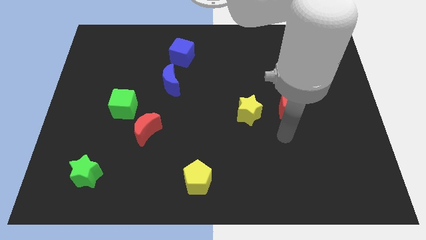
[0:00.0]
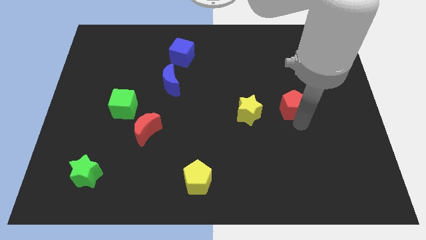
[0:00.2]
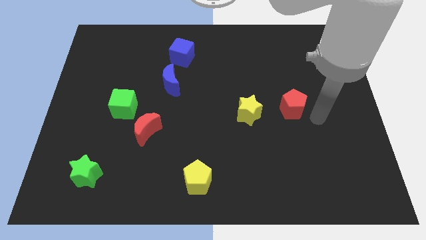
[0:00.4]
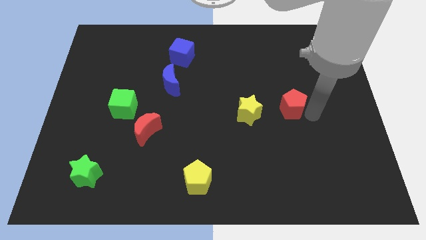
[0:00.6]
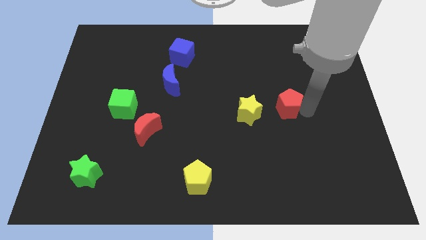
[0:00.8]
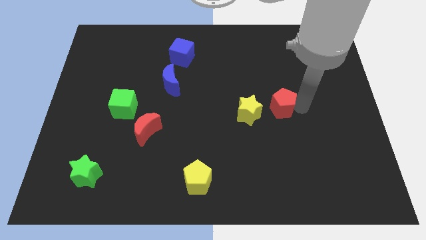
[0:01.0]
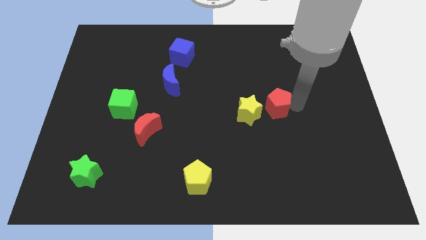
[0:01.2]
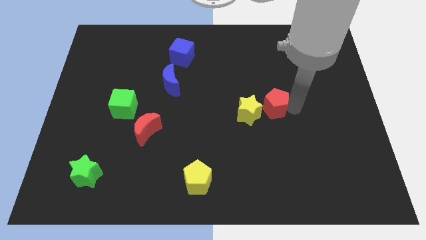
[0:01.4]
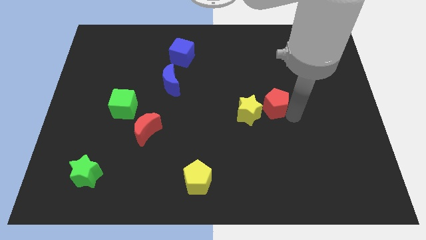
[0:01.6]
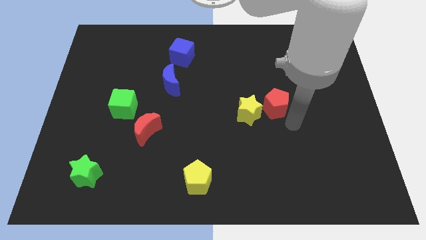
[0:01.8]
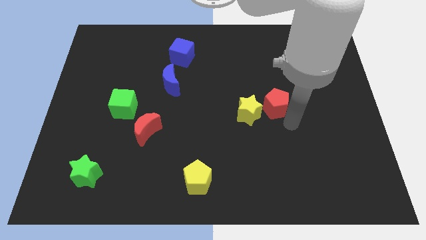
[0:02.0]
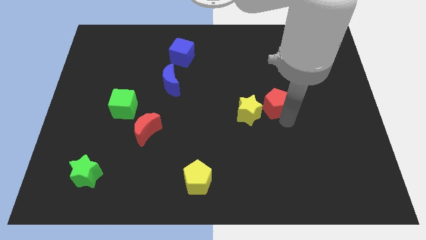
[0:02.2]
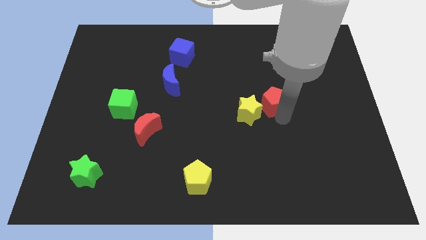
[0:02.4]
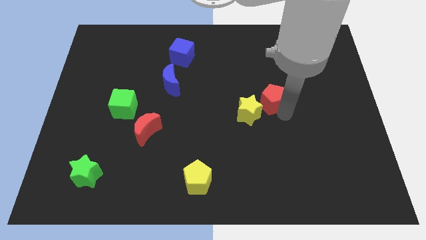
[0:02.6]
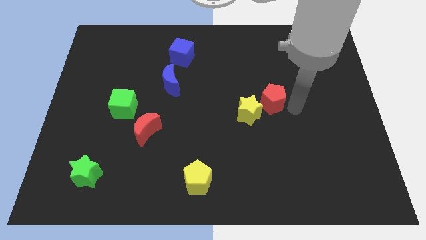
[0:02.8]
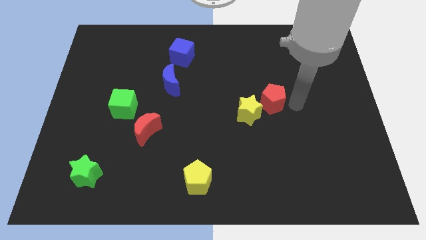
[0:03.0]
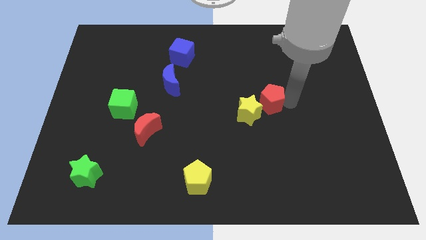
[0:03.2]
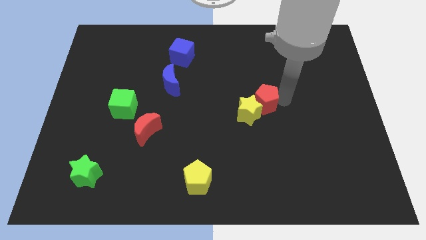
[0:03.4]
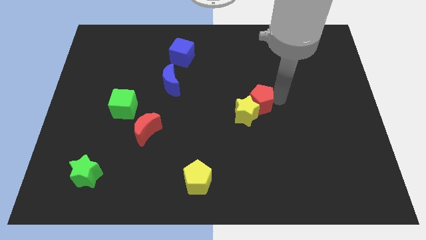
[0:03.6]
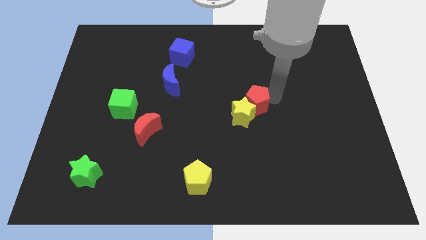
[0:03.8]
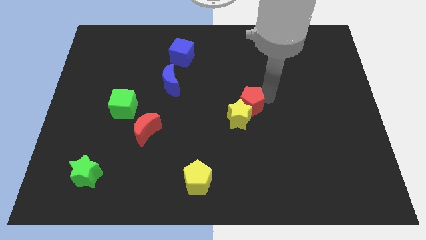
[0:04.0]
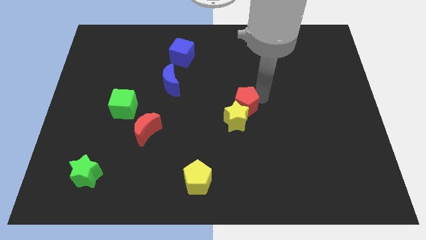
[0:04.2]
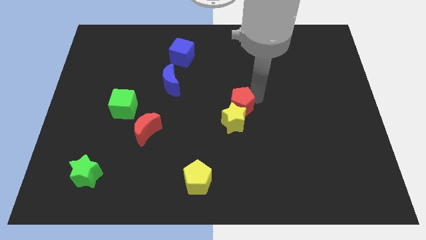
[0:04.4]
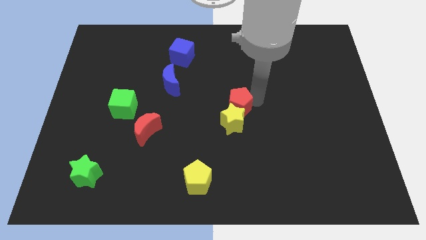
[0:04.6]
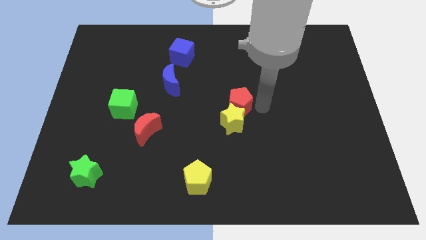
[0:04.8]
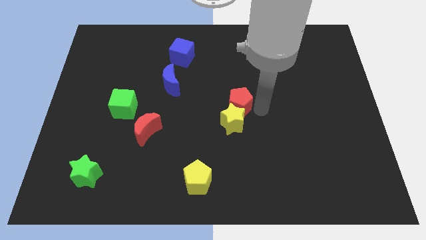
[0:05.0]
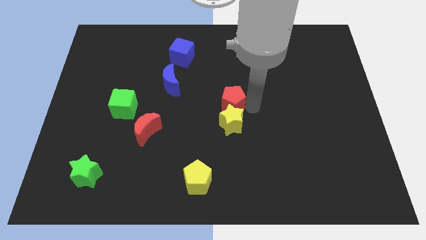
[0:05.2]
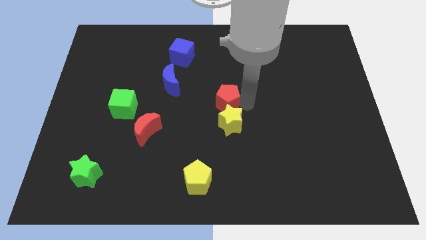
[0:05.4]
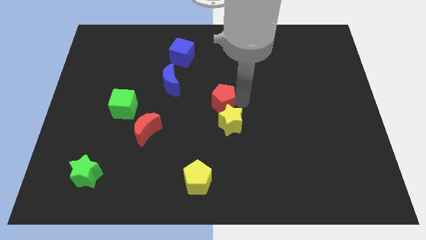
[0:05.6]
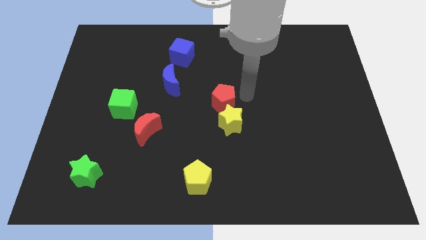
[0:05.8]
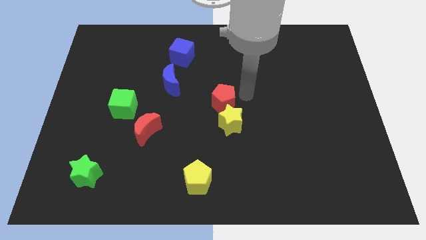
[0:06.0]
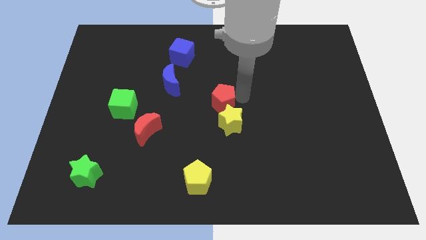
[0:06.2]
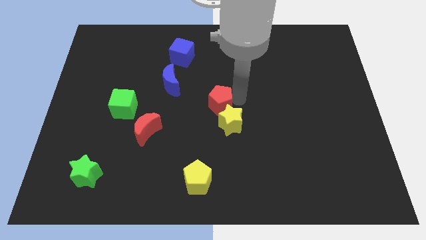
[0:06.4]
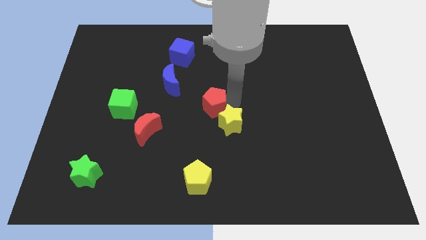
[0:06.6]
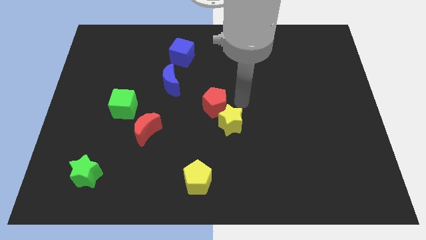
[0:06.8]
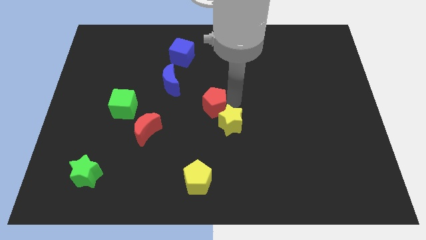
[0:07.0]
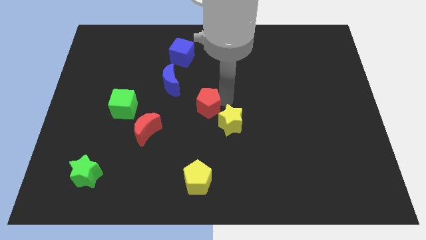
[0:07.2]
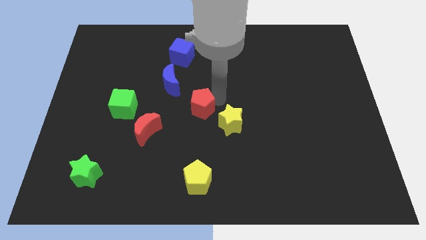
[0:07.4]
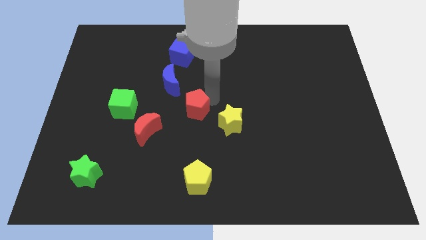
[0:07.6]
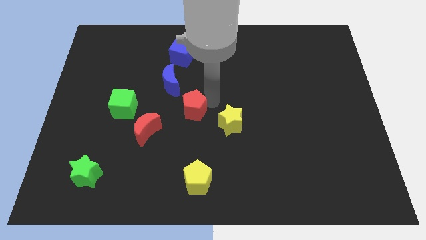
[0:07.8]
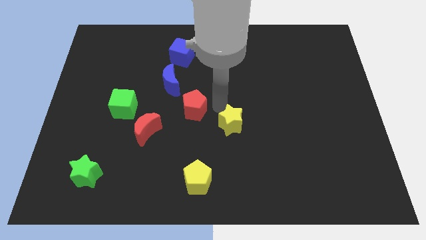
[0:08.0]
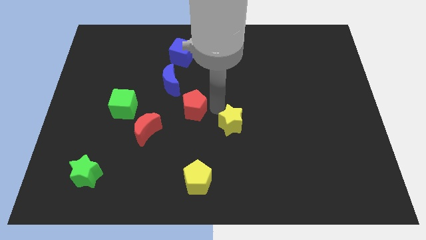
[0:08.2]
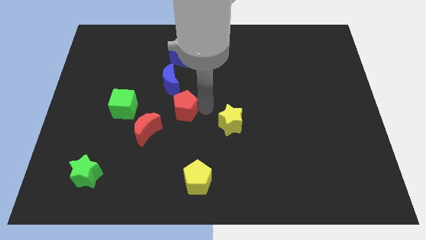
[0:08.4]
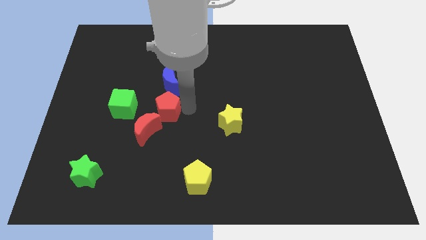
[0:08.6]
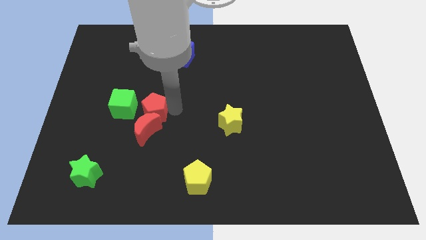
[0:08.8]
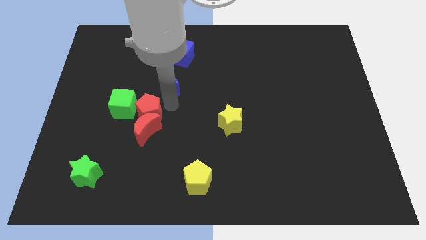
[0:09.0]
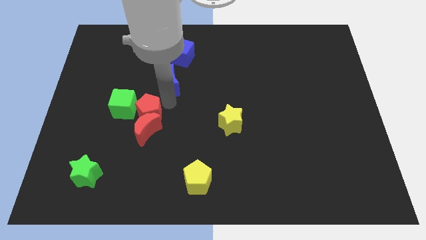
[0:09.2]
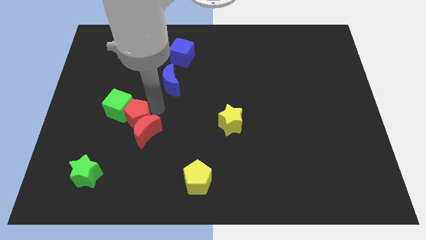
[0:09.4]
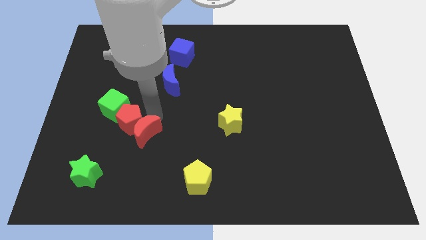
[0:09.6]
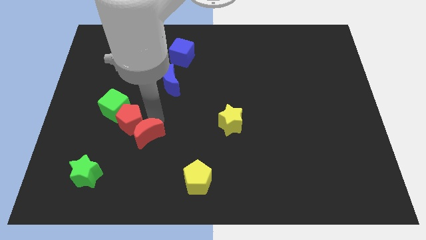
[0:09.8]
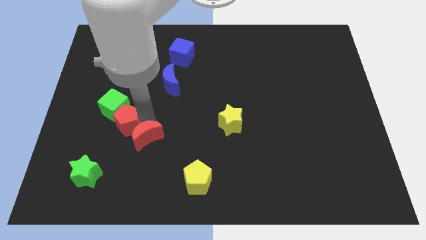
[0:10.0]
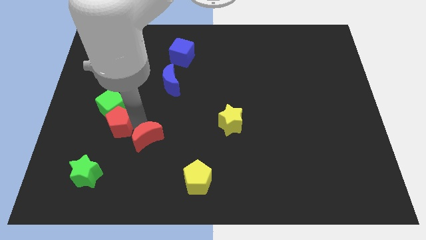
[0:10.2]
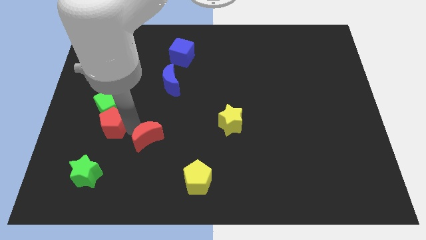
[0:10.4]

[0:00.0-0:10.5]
push the red pentagon diagonally down and to the left of the green cube

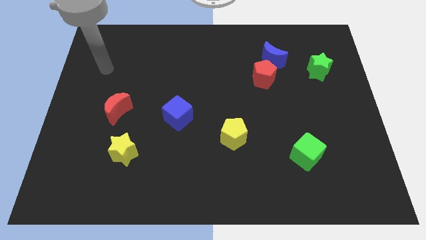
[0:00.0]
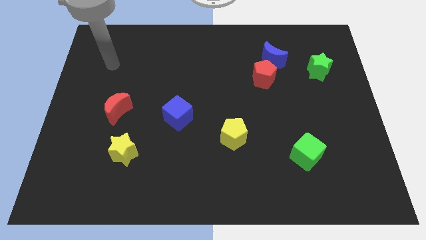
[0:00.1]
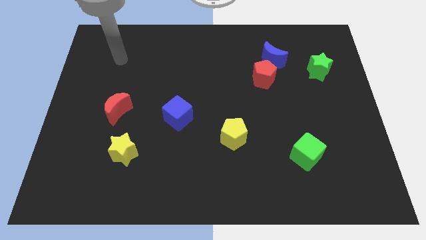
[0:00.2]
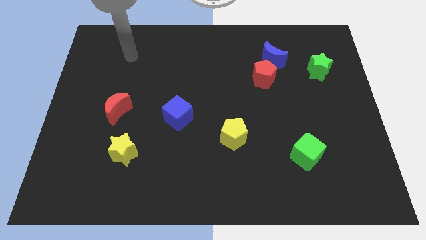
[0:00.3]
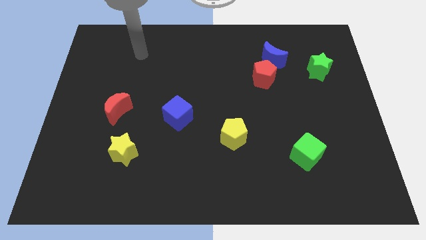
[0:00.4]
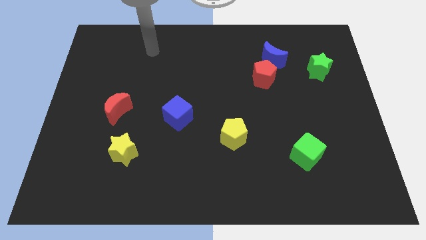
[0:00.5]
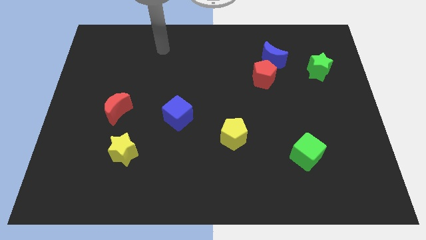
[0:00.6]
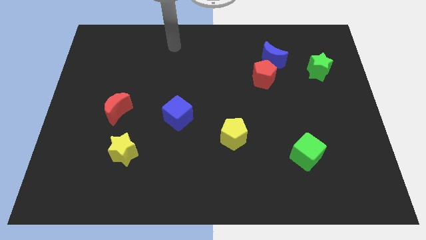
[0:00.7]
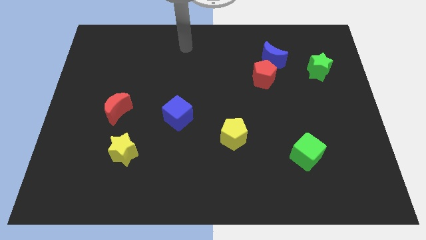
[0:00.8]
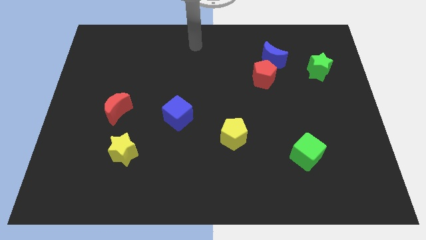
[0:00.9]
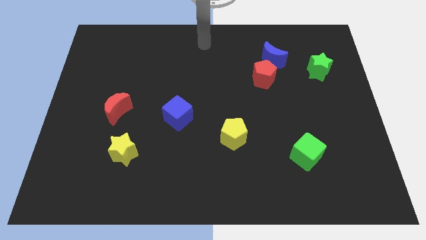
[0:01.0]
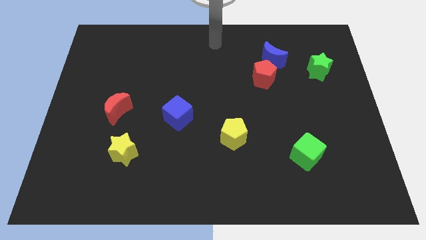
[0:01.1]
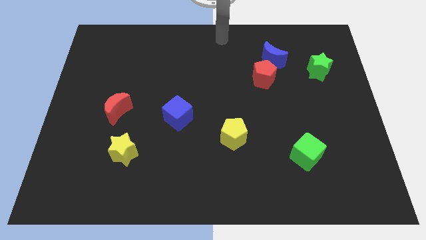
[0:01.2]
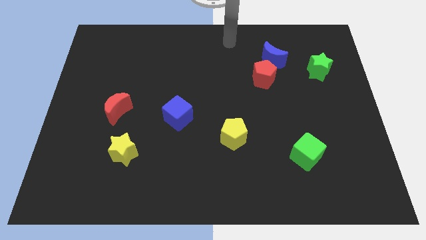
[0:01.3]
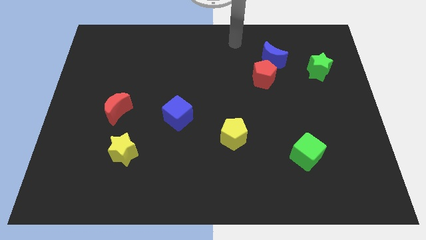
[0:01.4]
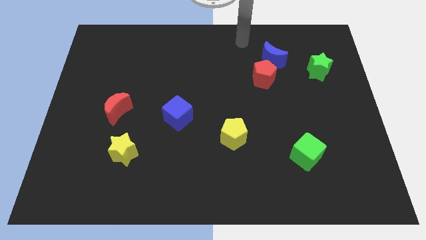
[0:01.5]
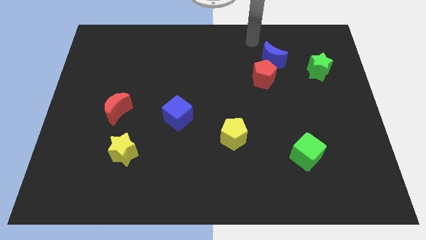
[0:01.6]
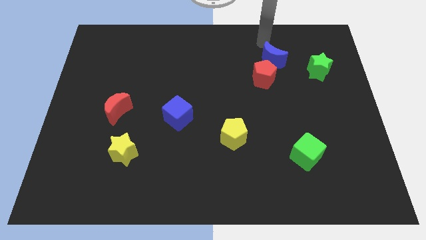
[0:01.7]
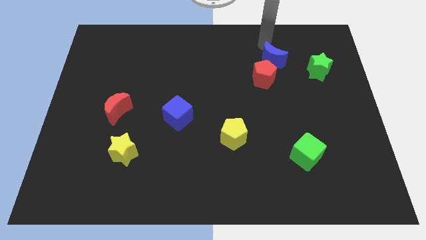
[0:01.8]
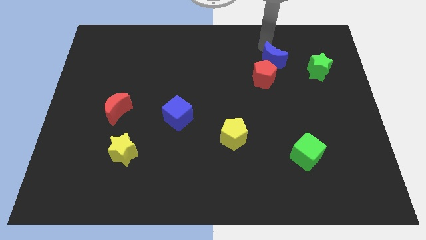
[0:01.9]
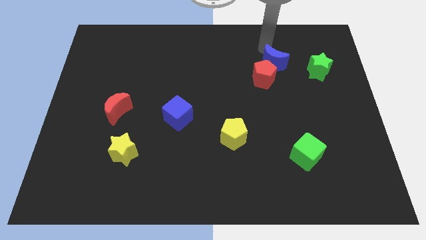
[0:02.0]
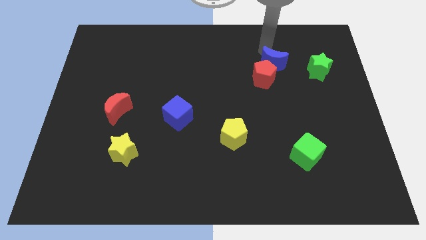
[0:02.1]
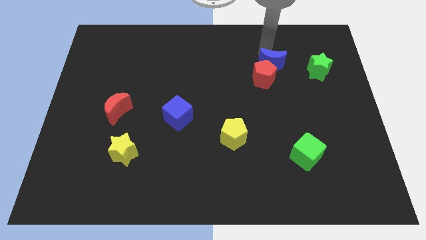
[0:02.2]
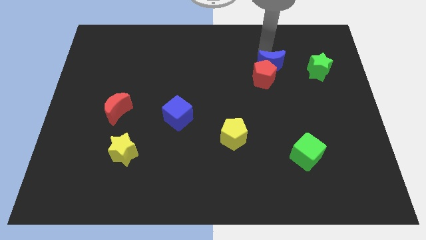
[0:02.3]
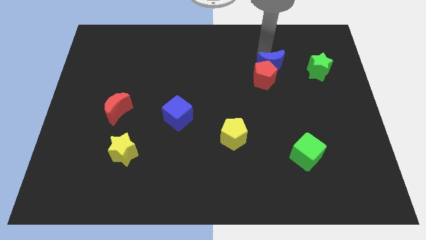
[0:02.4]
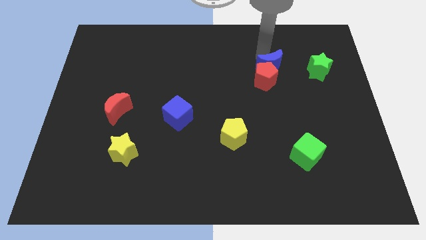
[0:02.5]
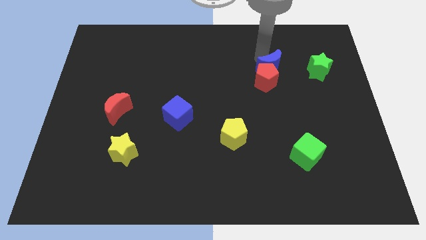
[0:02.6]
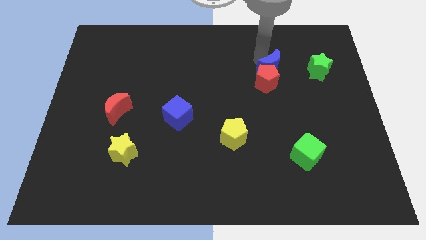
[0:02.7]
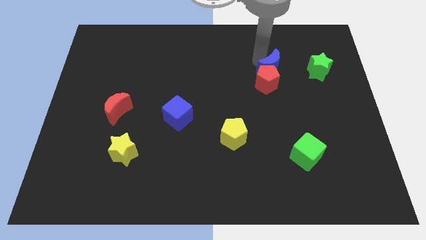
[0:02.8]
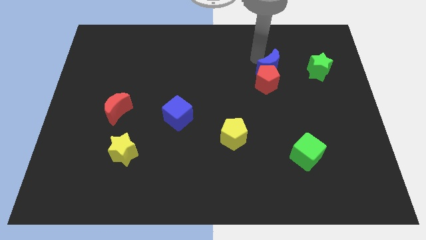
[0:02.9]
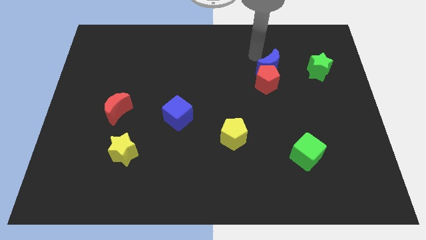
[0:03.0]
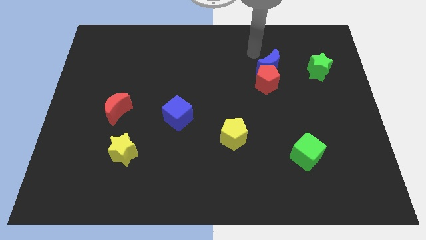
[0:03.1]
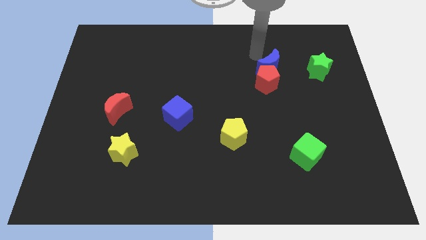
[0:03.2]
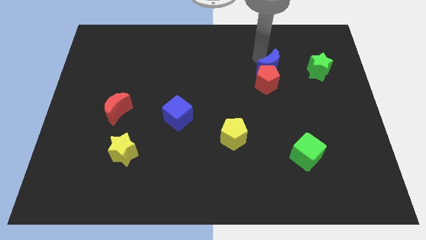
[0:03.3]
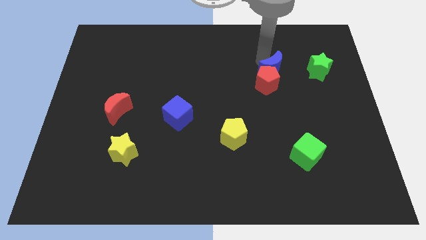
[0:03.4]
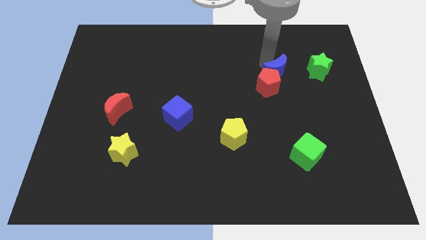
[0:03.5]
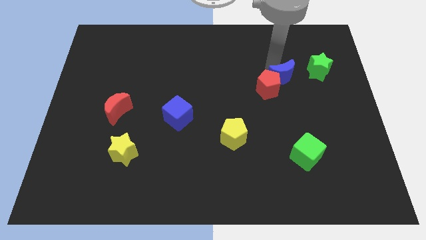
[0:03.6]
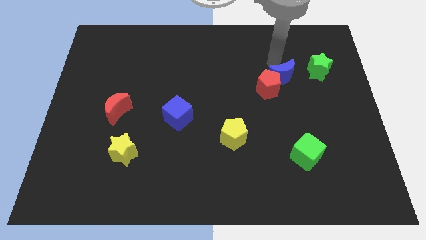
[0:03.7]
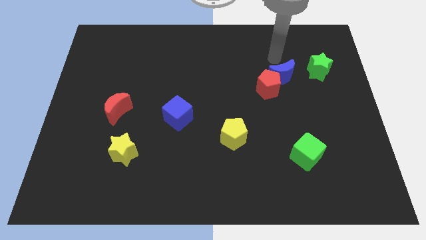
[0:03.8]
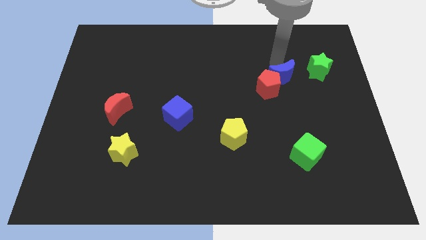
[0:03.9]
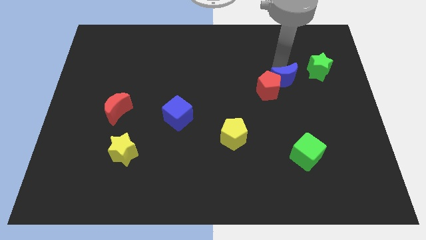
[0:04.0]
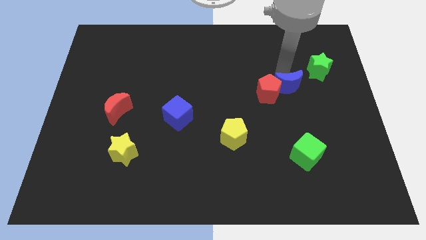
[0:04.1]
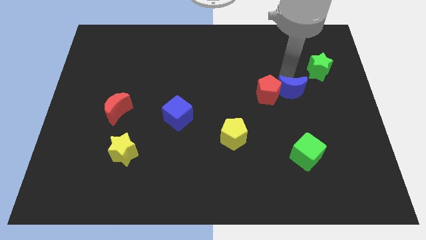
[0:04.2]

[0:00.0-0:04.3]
move the blue moon diagonally down and to the right of the red pentagon
